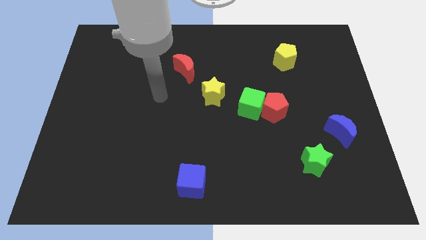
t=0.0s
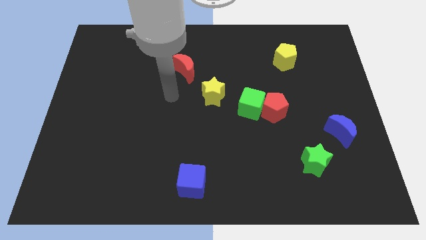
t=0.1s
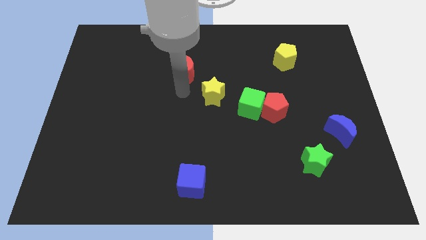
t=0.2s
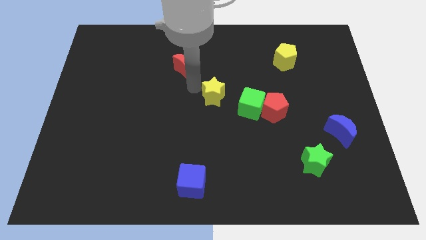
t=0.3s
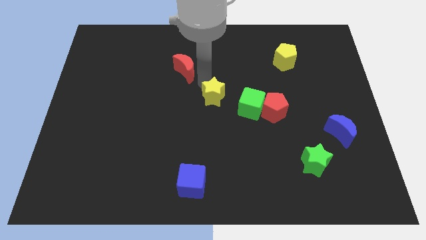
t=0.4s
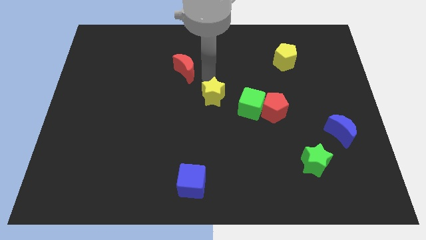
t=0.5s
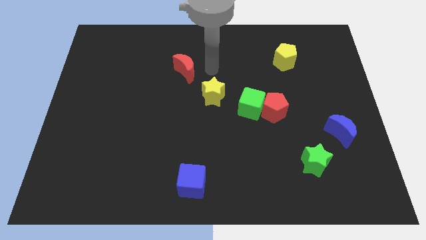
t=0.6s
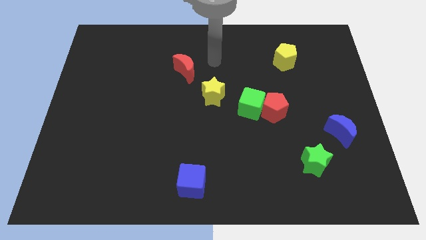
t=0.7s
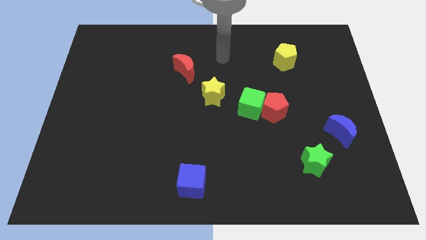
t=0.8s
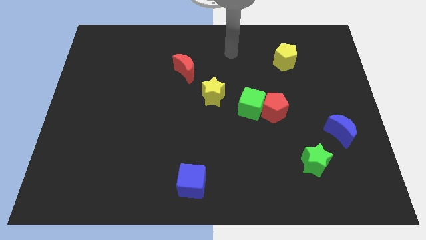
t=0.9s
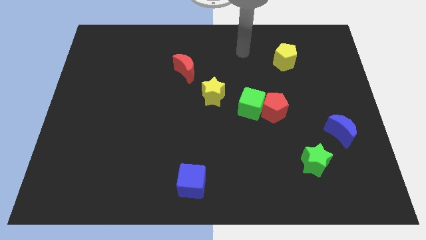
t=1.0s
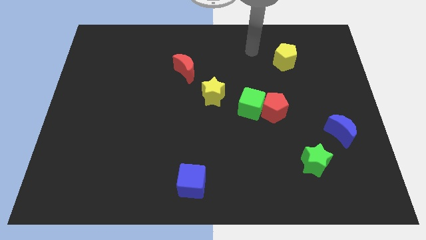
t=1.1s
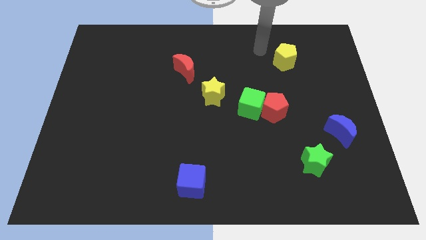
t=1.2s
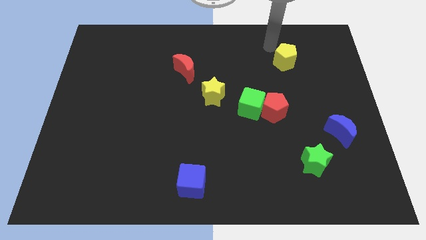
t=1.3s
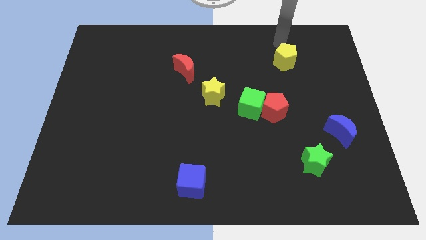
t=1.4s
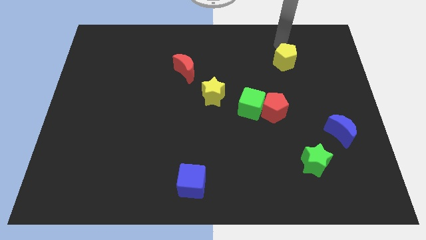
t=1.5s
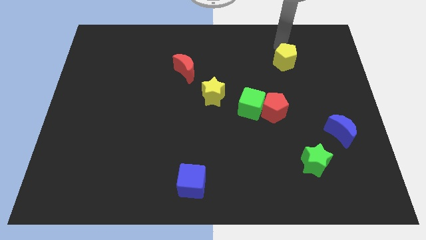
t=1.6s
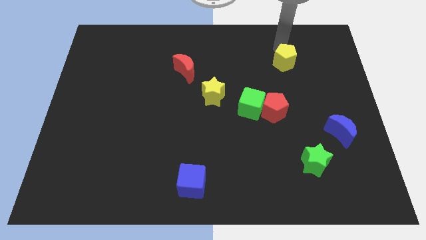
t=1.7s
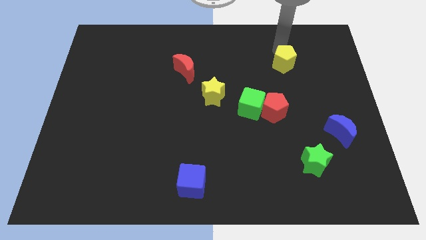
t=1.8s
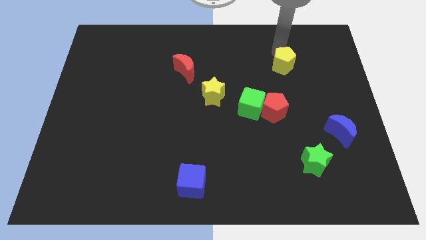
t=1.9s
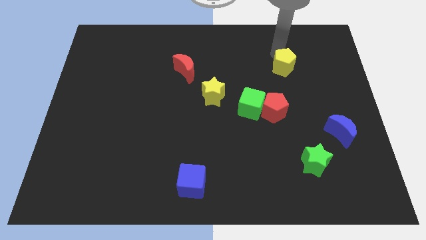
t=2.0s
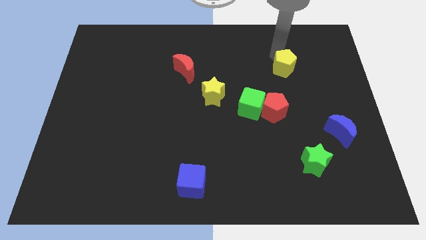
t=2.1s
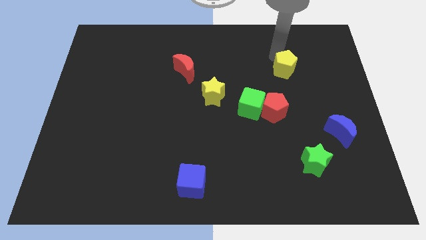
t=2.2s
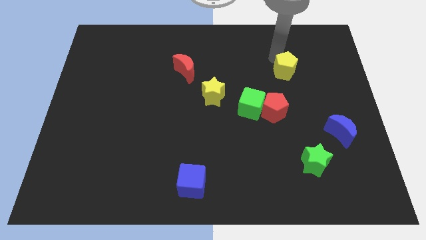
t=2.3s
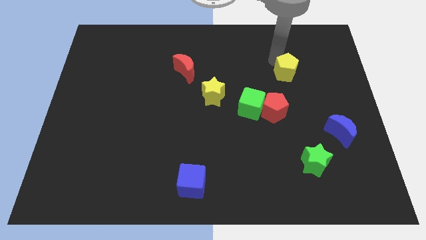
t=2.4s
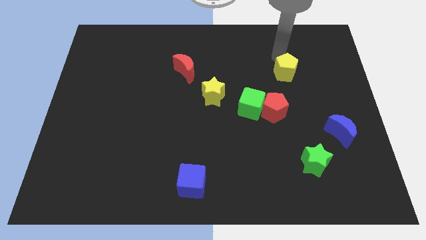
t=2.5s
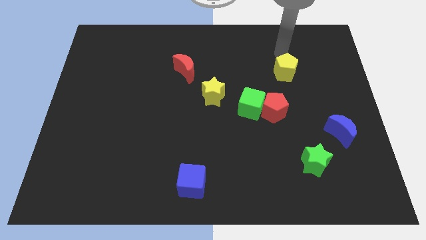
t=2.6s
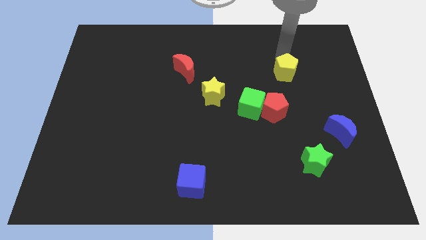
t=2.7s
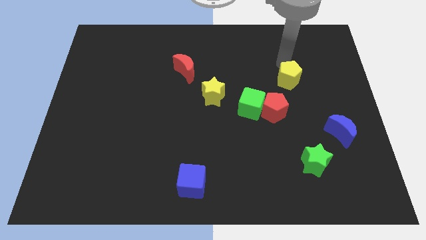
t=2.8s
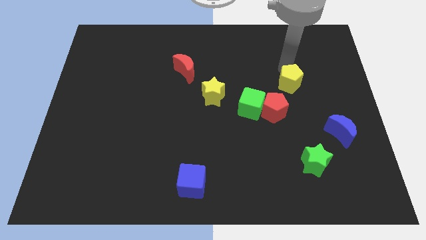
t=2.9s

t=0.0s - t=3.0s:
slightly slide the yellow pentagon down

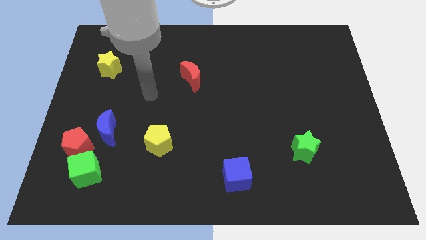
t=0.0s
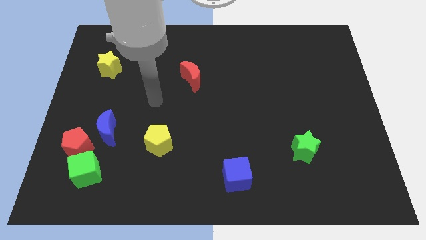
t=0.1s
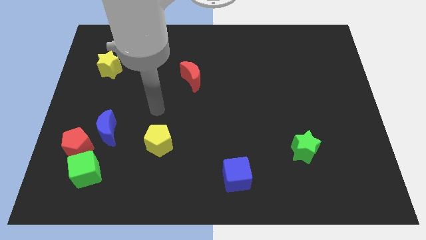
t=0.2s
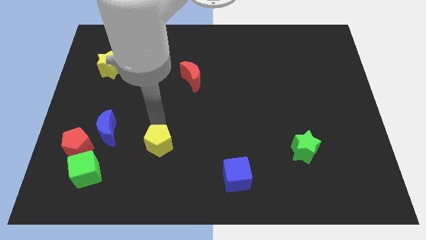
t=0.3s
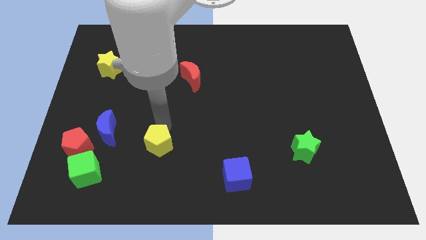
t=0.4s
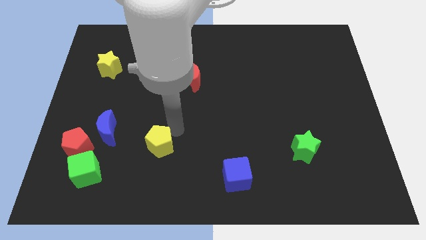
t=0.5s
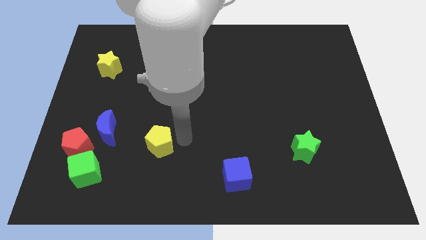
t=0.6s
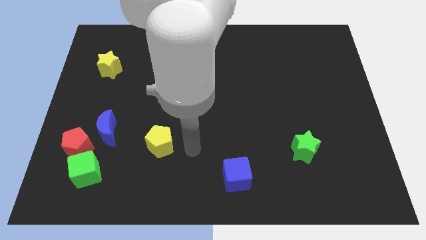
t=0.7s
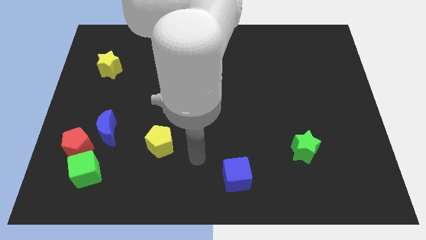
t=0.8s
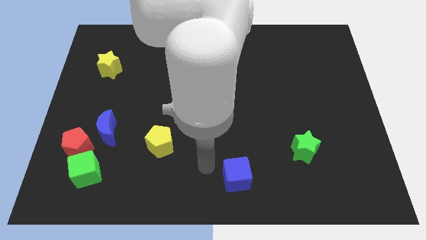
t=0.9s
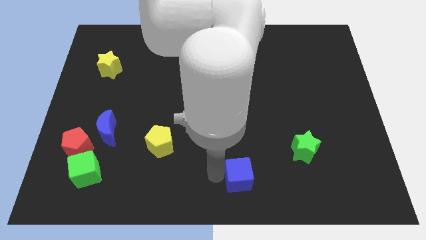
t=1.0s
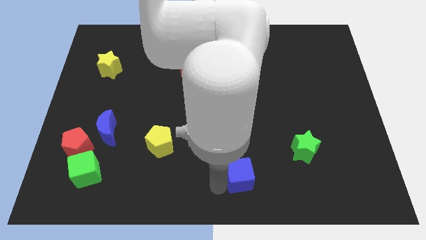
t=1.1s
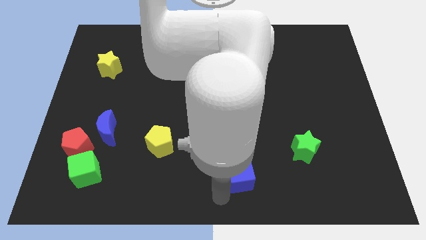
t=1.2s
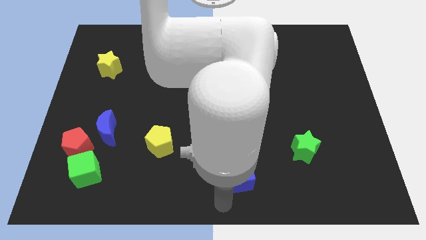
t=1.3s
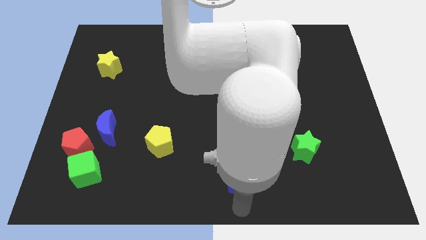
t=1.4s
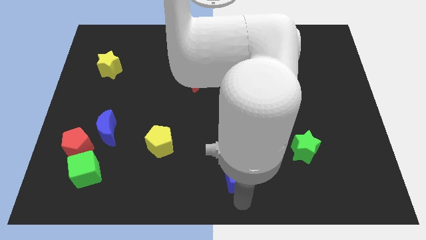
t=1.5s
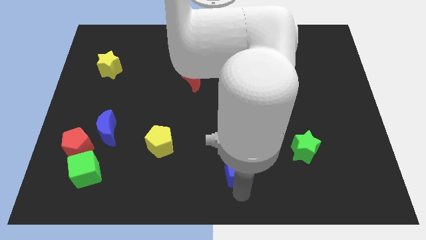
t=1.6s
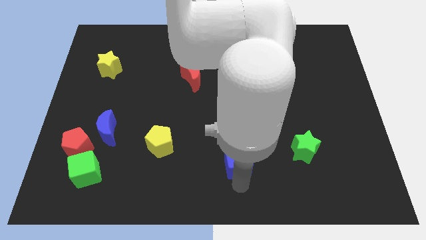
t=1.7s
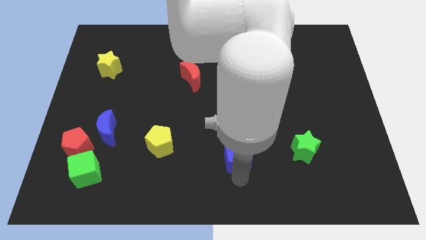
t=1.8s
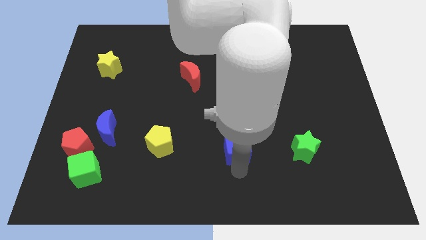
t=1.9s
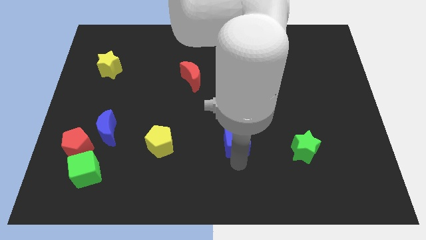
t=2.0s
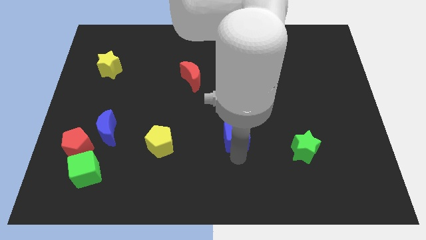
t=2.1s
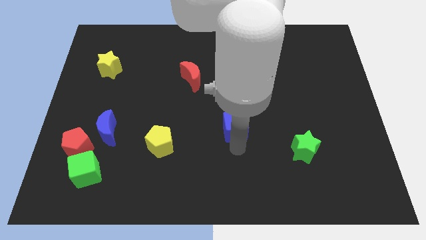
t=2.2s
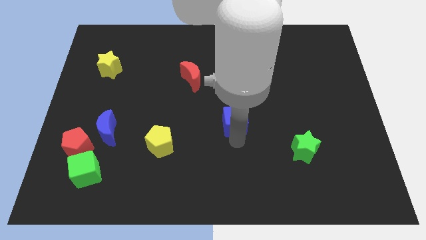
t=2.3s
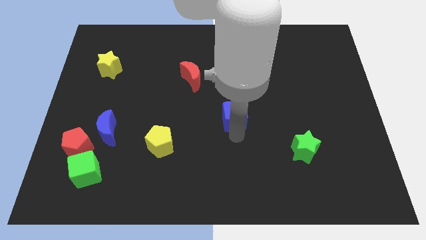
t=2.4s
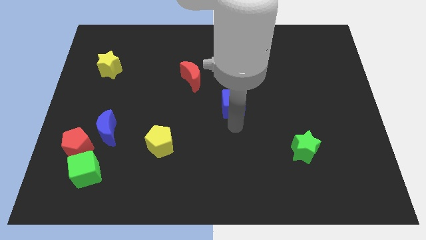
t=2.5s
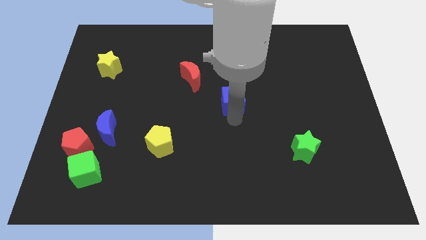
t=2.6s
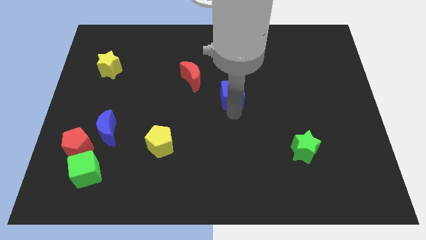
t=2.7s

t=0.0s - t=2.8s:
push the blue cube upwards

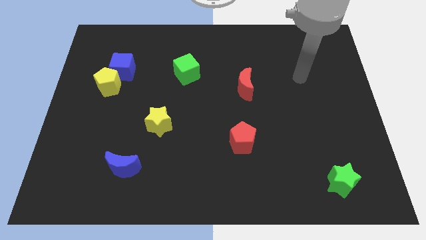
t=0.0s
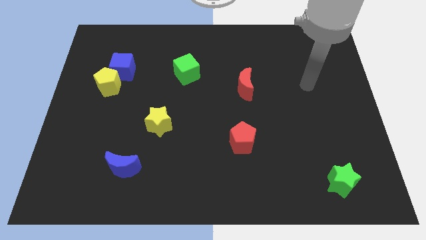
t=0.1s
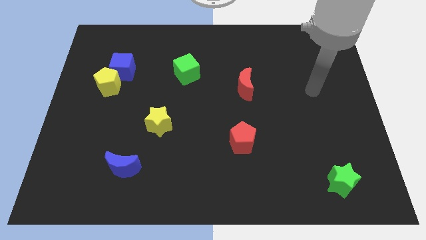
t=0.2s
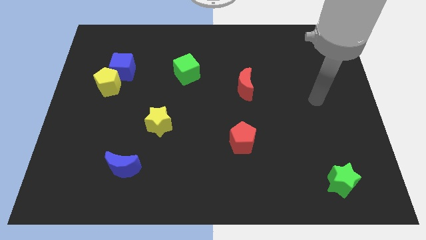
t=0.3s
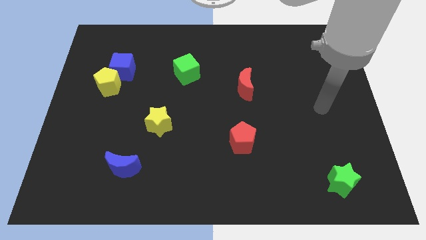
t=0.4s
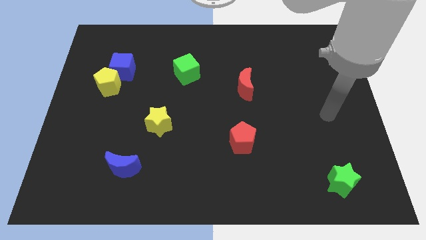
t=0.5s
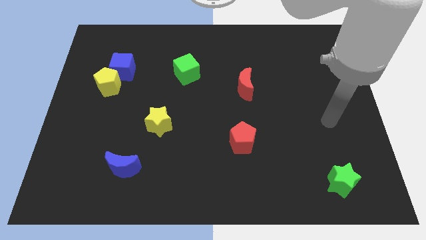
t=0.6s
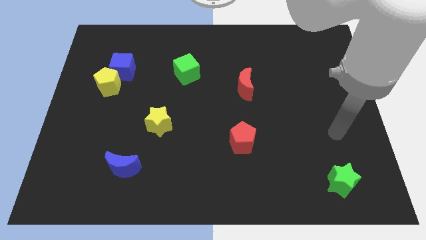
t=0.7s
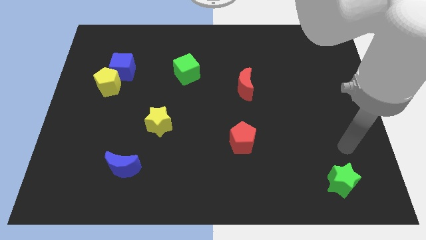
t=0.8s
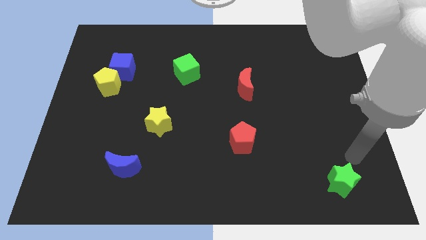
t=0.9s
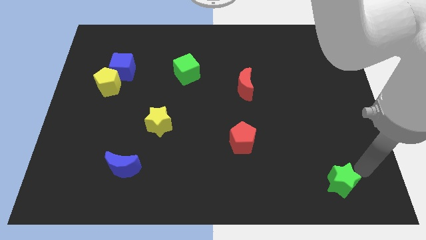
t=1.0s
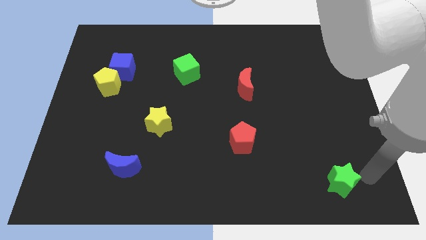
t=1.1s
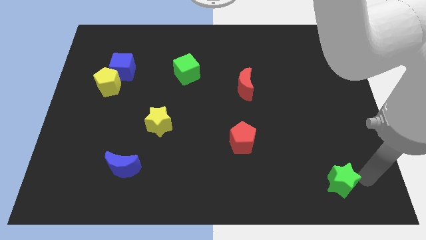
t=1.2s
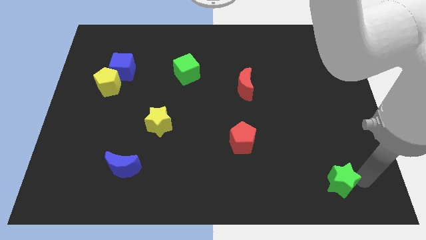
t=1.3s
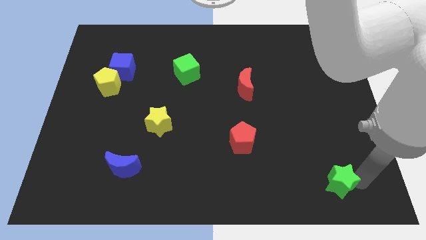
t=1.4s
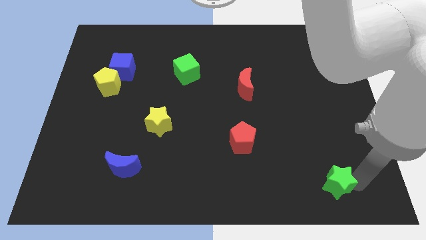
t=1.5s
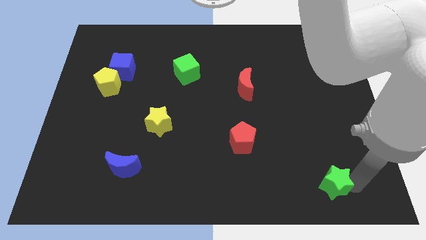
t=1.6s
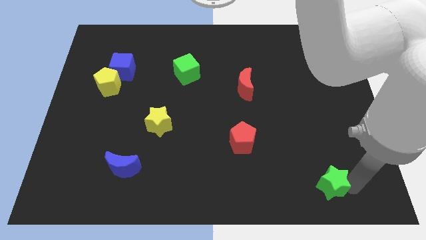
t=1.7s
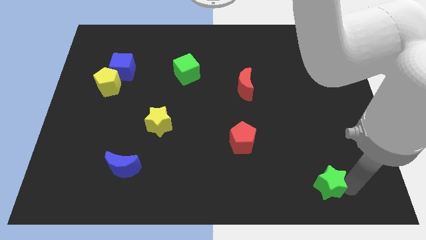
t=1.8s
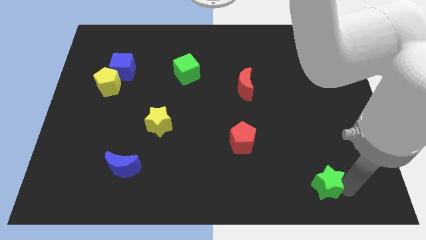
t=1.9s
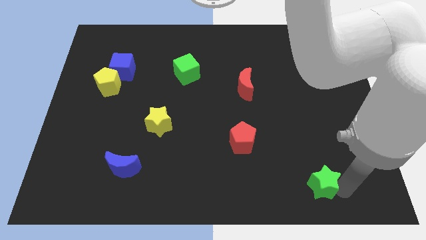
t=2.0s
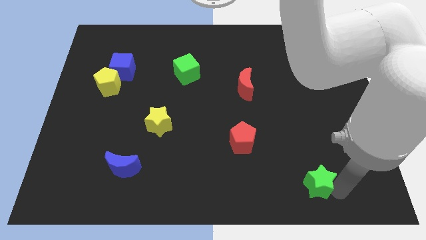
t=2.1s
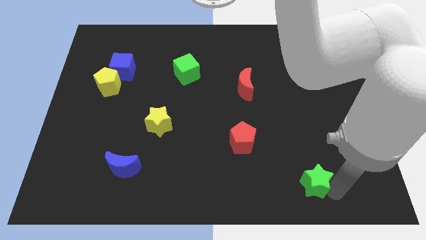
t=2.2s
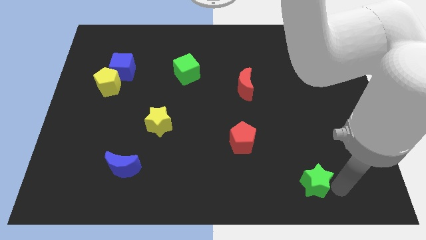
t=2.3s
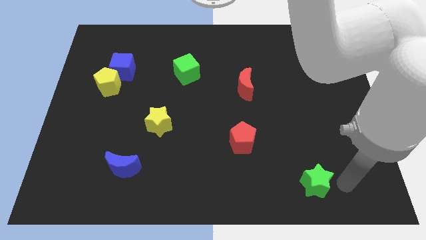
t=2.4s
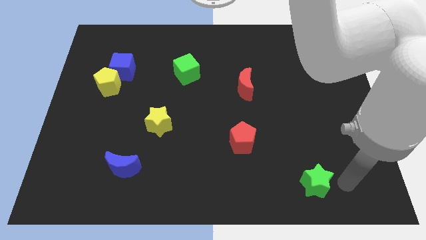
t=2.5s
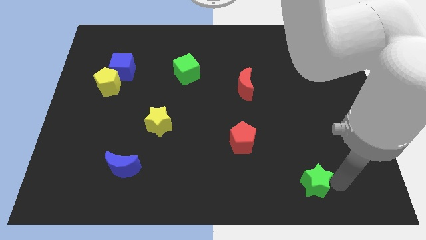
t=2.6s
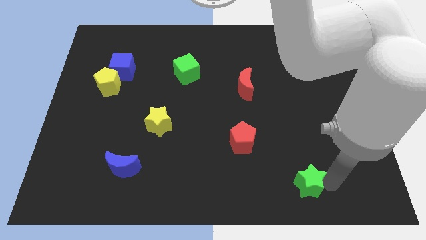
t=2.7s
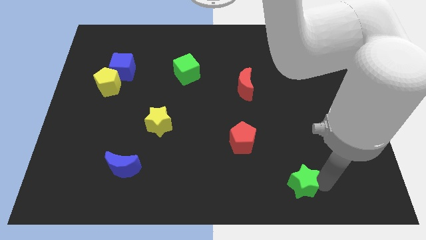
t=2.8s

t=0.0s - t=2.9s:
move the green star a little bit left
